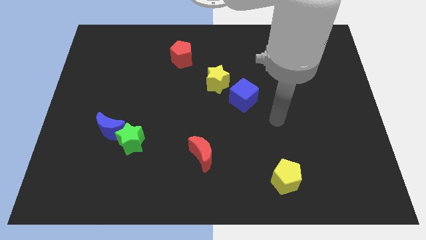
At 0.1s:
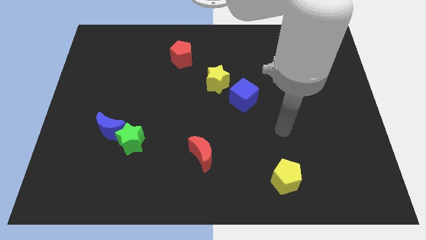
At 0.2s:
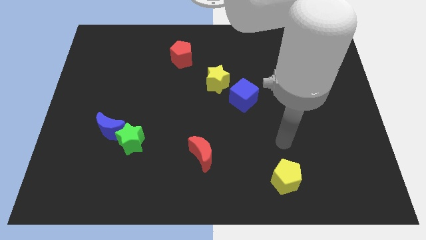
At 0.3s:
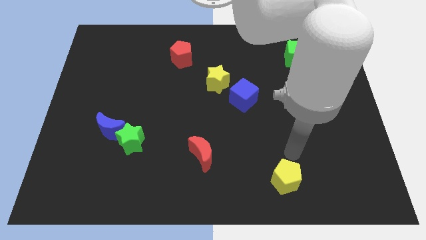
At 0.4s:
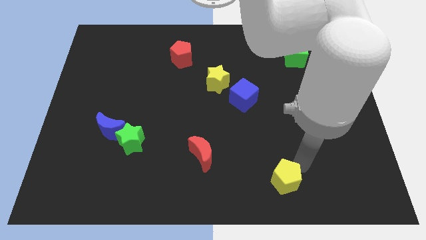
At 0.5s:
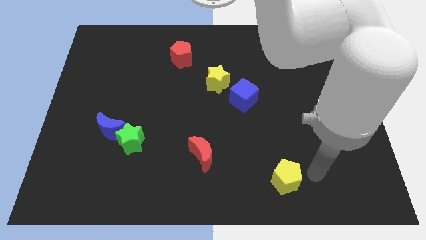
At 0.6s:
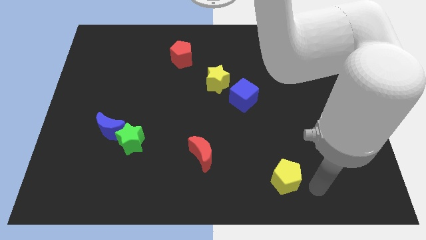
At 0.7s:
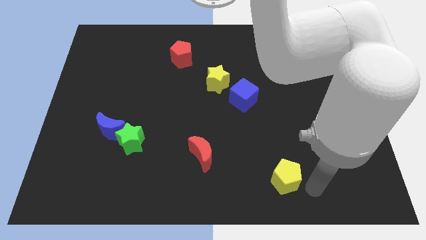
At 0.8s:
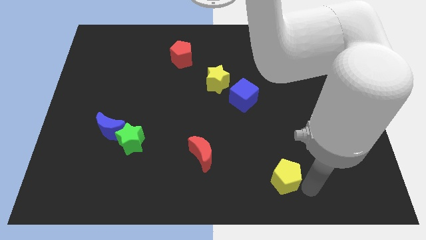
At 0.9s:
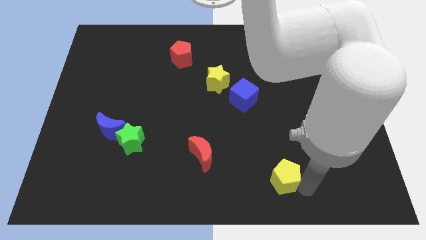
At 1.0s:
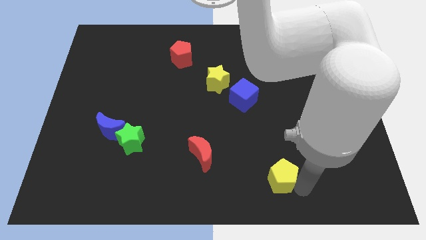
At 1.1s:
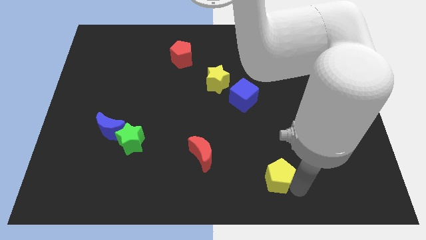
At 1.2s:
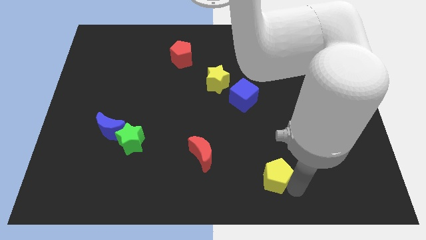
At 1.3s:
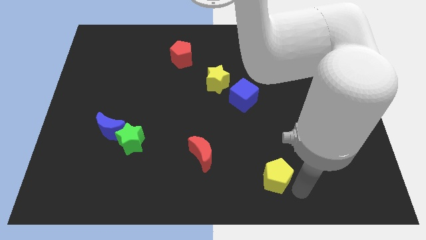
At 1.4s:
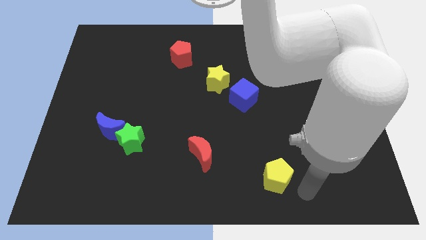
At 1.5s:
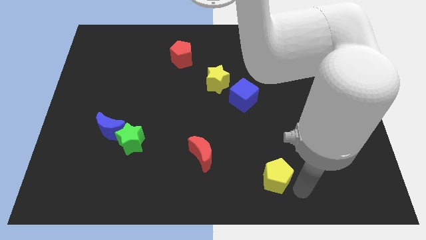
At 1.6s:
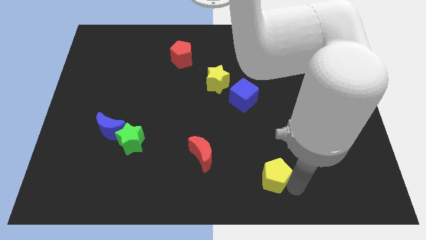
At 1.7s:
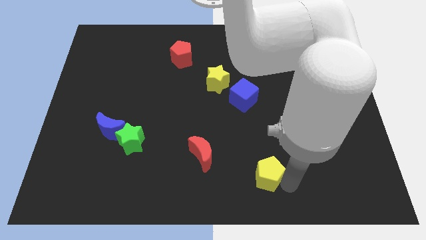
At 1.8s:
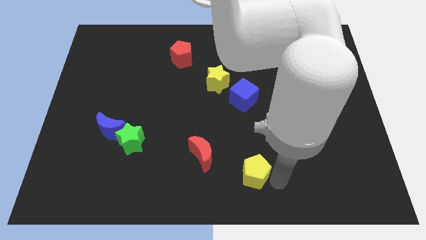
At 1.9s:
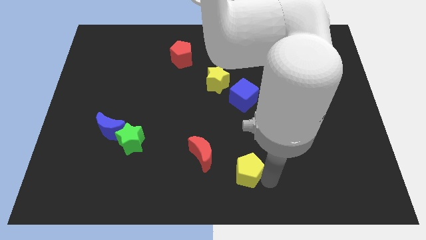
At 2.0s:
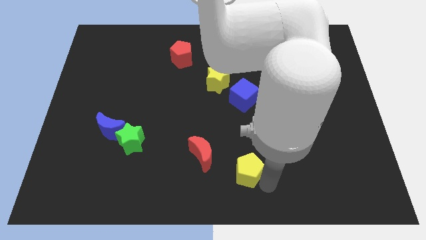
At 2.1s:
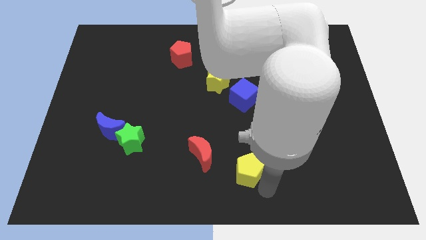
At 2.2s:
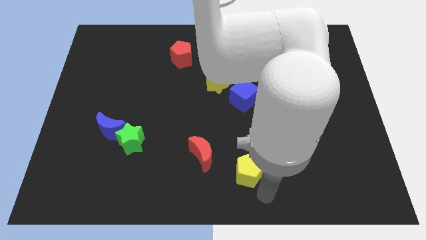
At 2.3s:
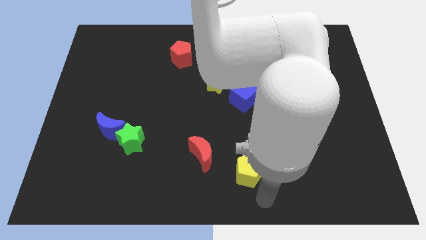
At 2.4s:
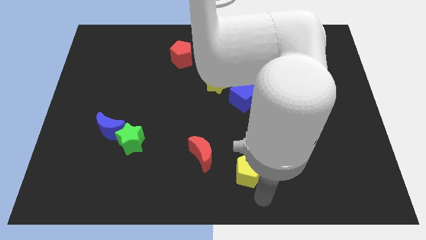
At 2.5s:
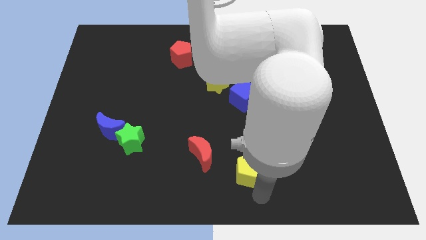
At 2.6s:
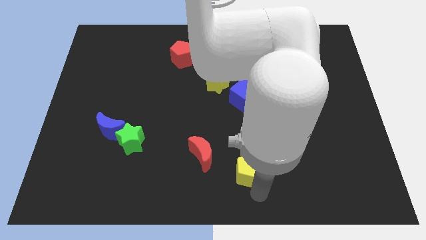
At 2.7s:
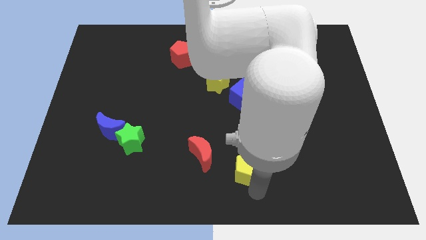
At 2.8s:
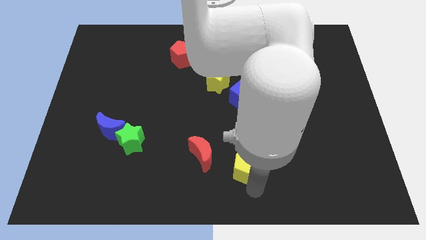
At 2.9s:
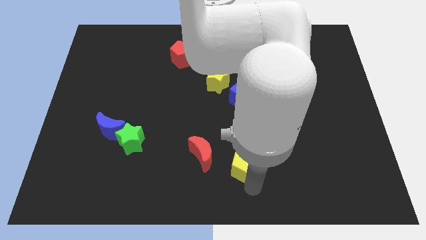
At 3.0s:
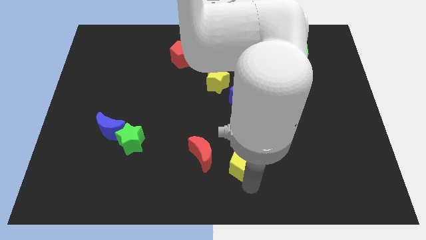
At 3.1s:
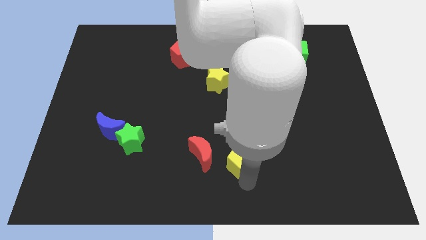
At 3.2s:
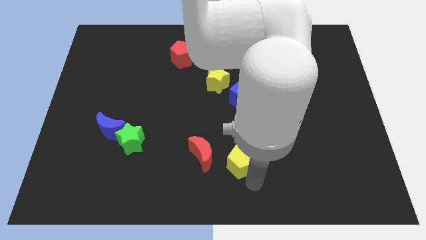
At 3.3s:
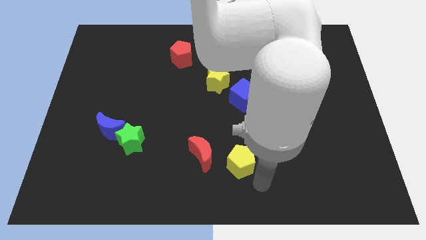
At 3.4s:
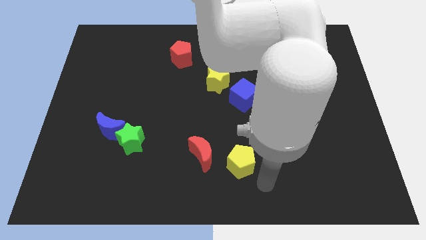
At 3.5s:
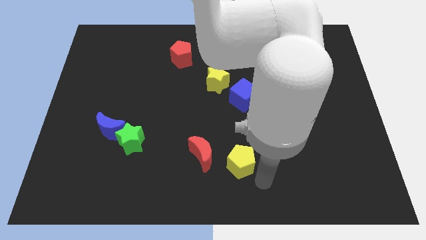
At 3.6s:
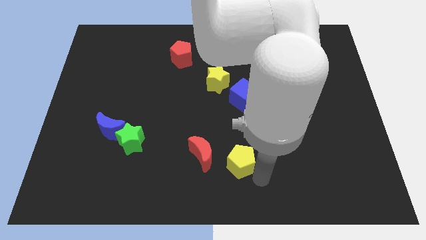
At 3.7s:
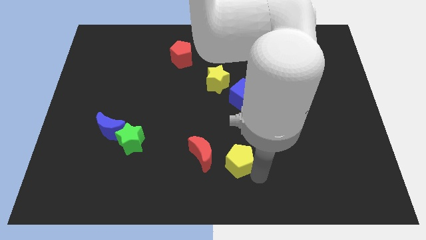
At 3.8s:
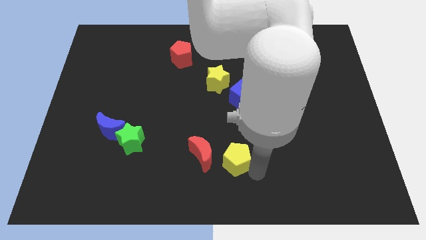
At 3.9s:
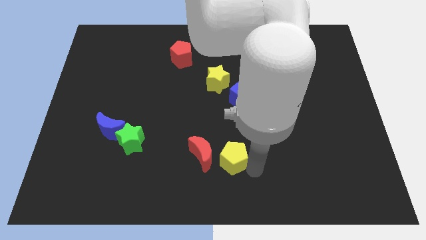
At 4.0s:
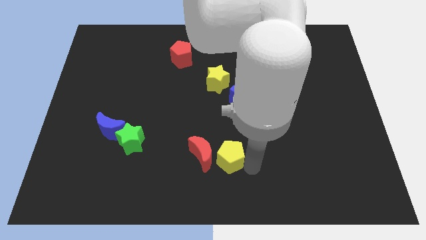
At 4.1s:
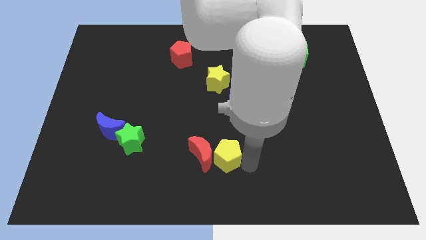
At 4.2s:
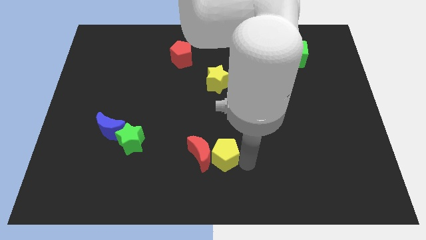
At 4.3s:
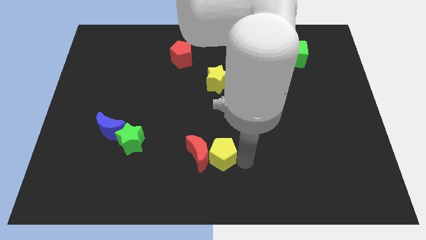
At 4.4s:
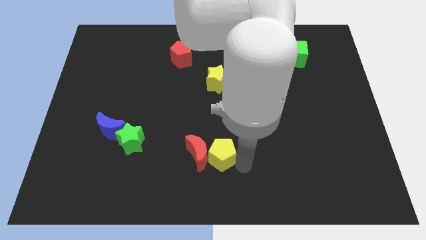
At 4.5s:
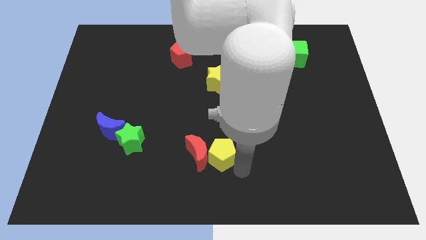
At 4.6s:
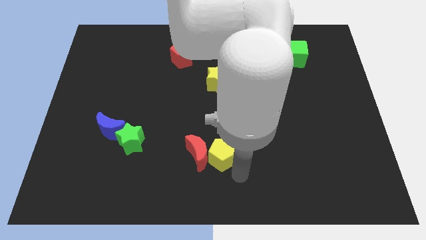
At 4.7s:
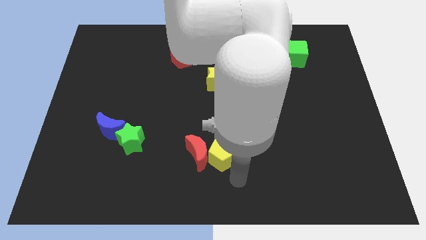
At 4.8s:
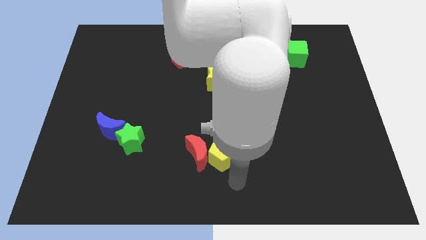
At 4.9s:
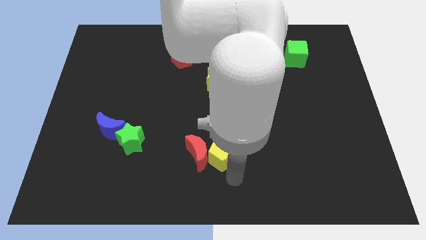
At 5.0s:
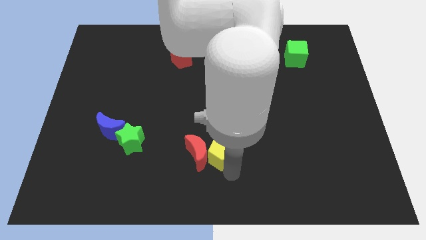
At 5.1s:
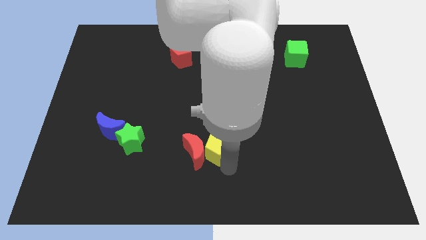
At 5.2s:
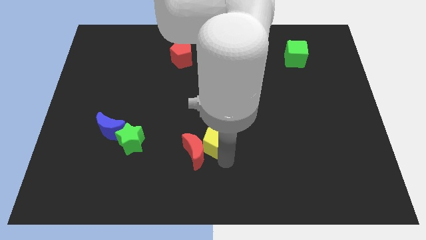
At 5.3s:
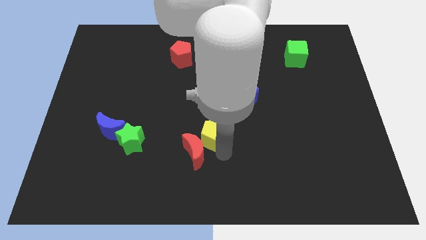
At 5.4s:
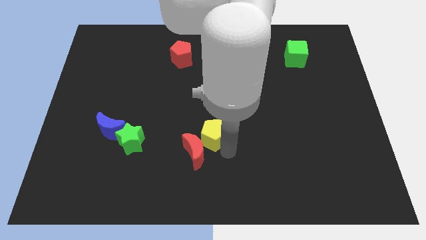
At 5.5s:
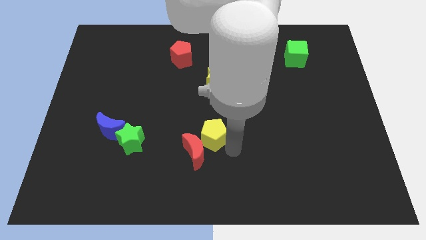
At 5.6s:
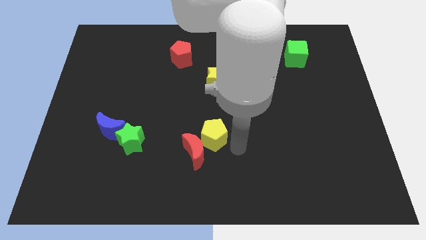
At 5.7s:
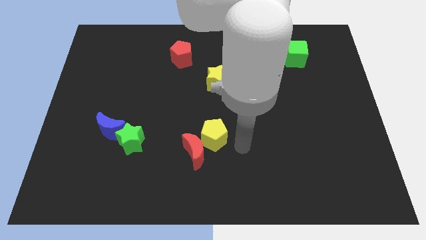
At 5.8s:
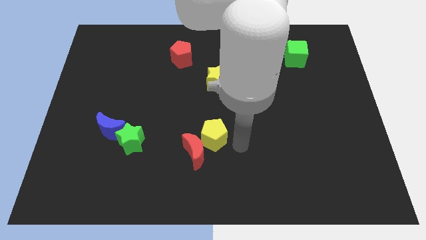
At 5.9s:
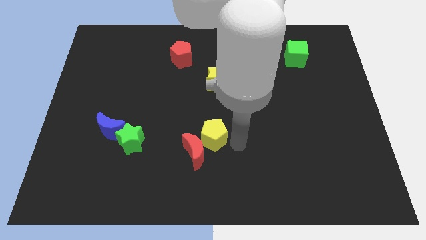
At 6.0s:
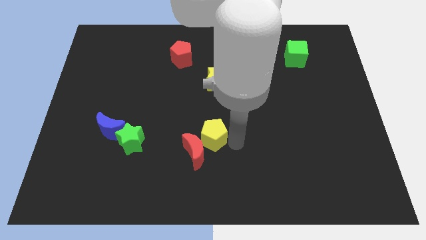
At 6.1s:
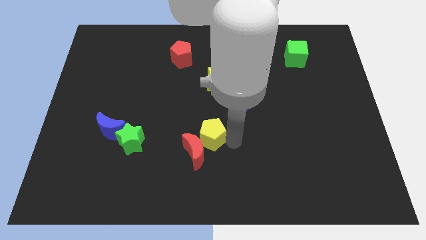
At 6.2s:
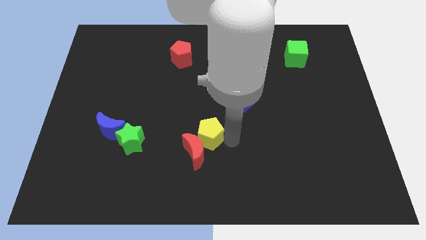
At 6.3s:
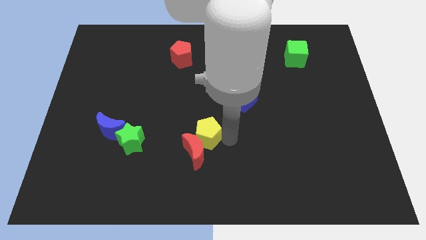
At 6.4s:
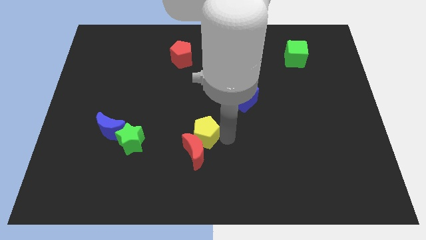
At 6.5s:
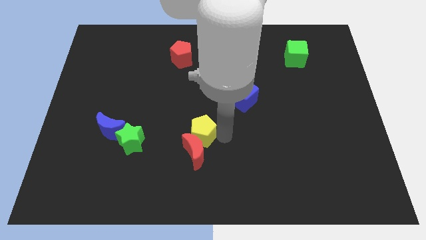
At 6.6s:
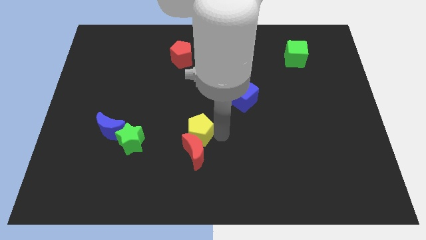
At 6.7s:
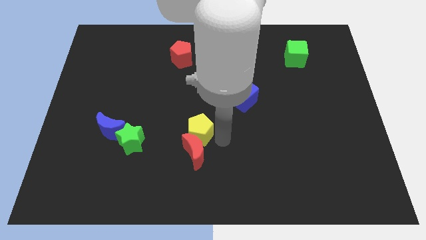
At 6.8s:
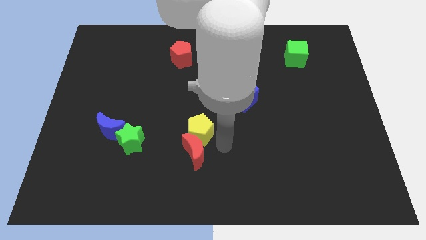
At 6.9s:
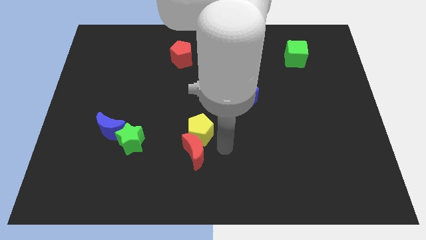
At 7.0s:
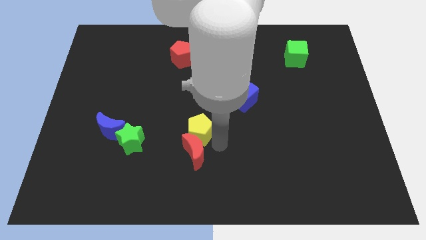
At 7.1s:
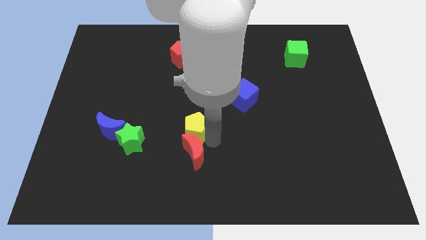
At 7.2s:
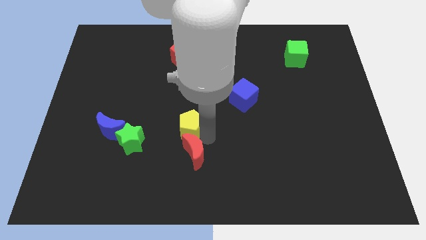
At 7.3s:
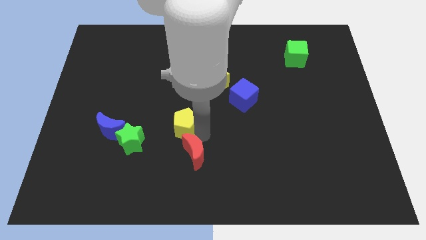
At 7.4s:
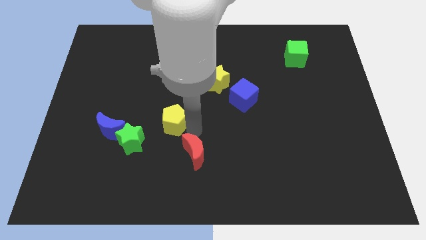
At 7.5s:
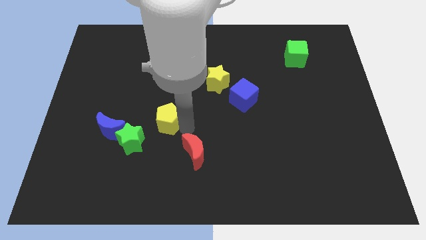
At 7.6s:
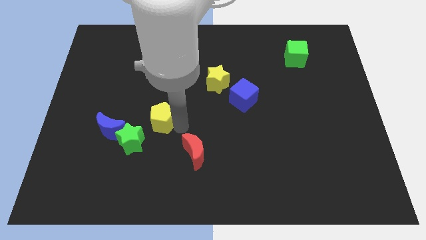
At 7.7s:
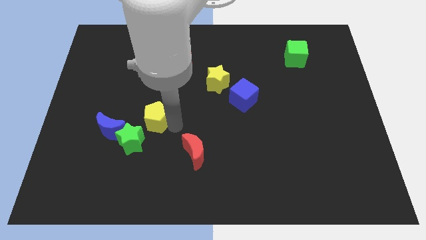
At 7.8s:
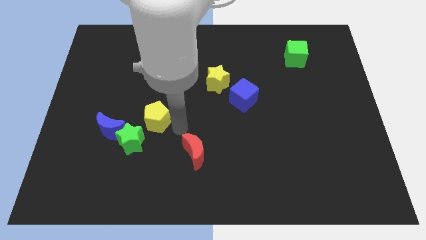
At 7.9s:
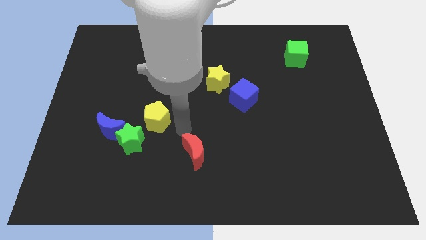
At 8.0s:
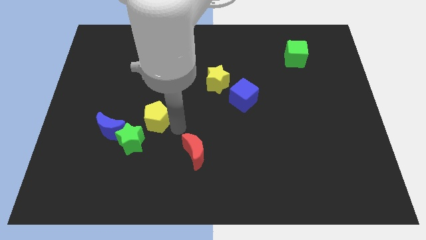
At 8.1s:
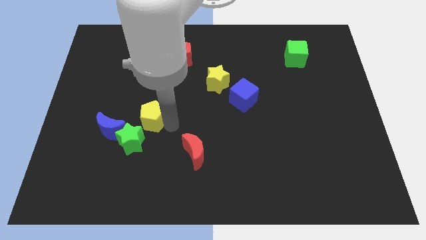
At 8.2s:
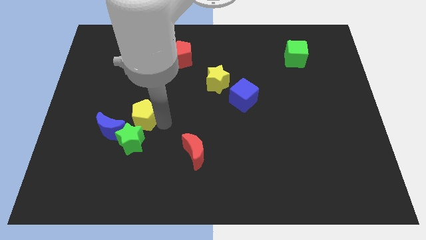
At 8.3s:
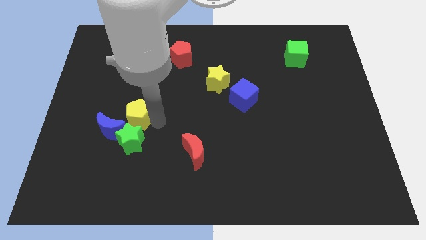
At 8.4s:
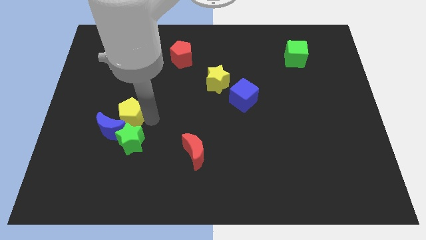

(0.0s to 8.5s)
move the yellow pentagon diagonally up and to the left of the green star
